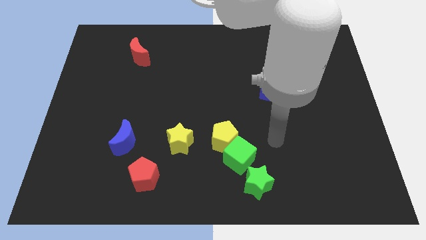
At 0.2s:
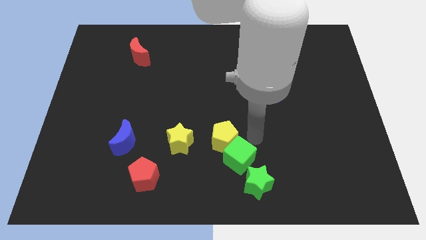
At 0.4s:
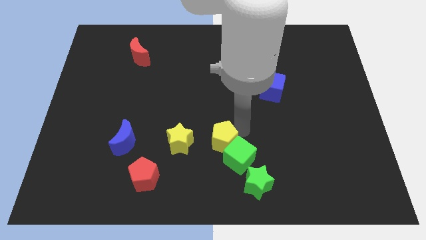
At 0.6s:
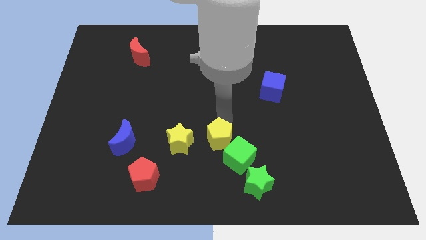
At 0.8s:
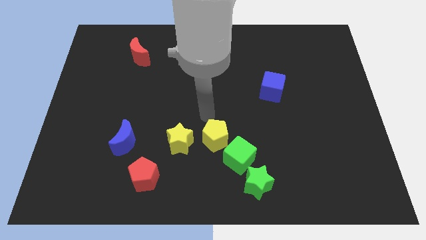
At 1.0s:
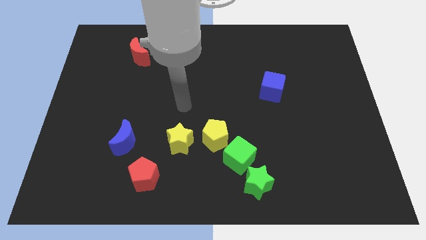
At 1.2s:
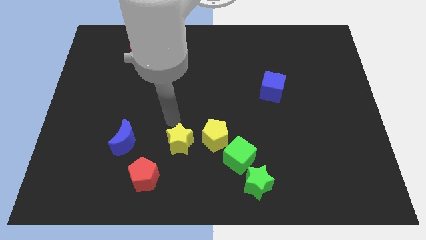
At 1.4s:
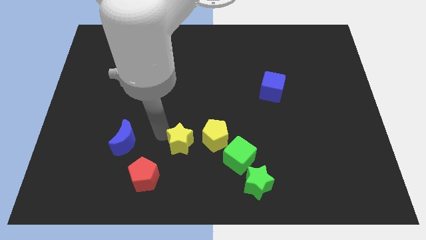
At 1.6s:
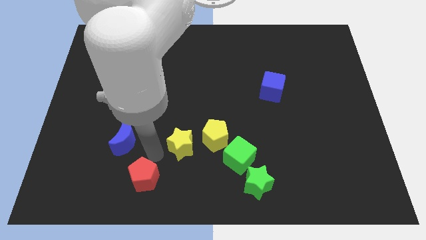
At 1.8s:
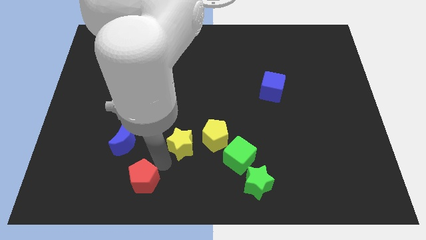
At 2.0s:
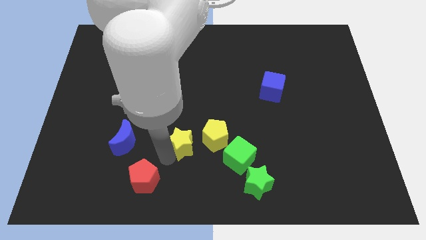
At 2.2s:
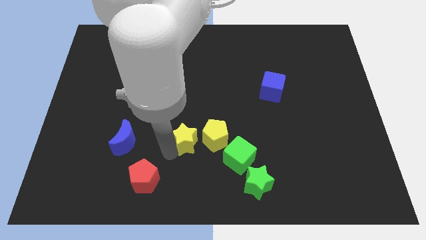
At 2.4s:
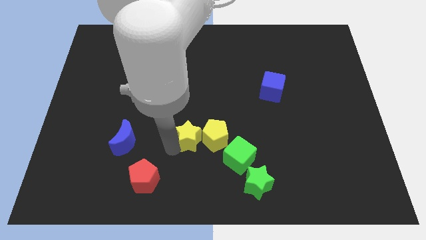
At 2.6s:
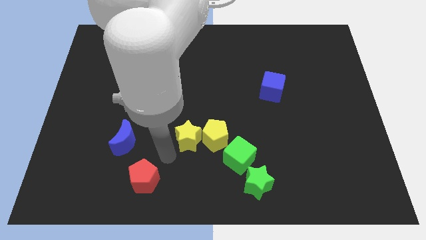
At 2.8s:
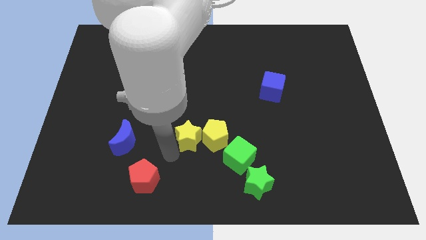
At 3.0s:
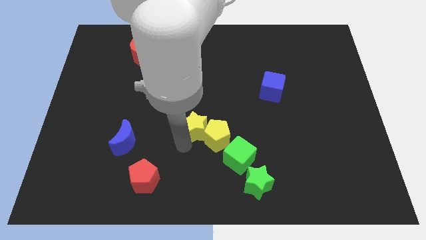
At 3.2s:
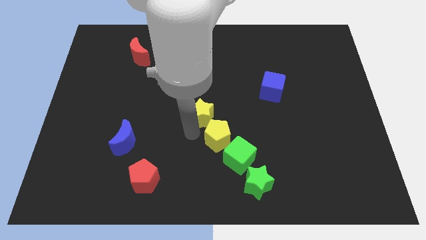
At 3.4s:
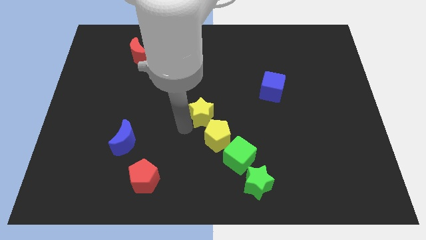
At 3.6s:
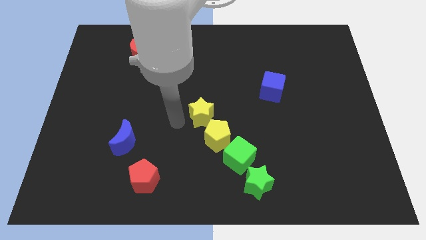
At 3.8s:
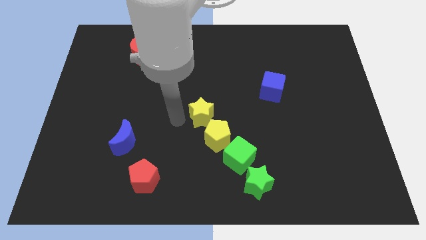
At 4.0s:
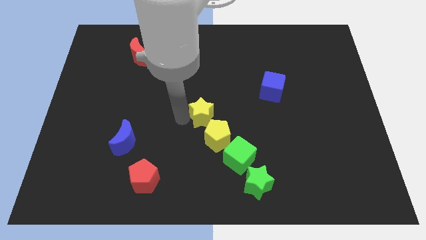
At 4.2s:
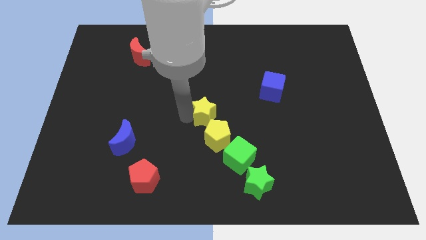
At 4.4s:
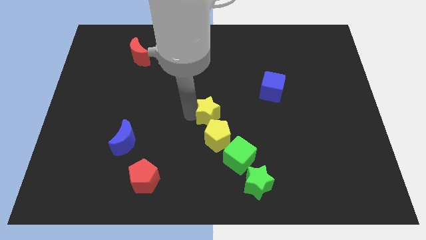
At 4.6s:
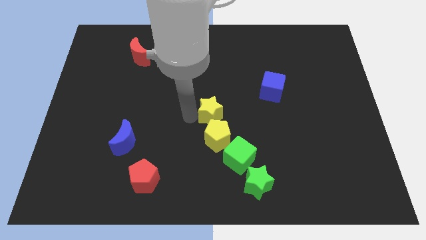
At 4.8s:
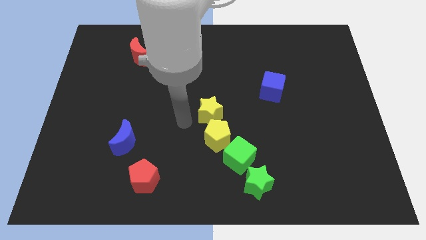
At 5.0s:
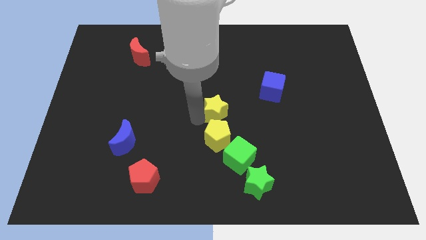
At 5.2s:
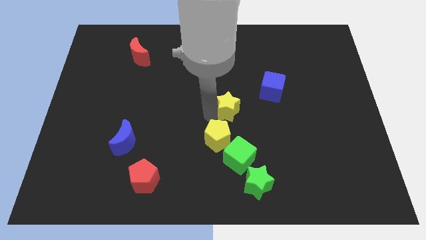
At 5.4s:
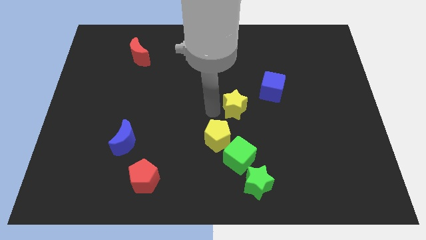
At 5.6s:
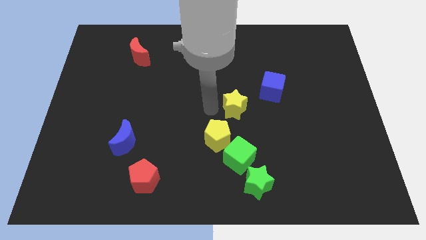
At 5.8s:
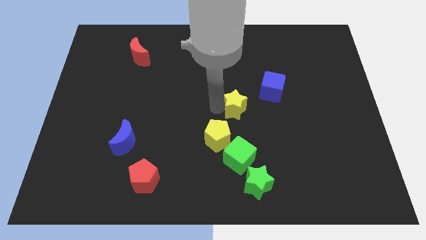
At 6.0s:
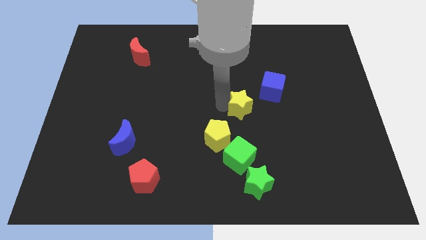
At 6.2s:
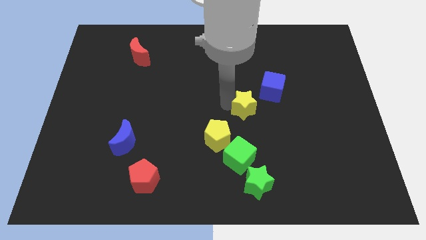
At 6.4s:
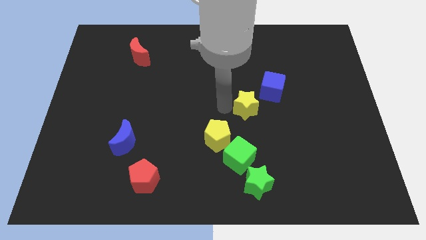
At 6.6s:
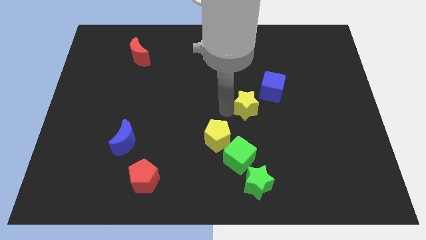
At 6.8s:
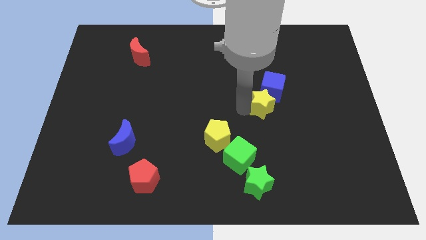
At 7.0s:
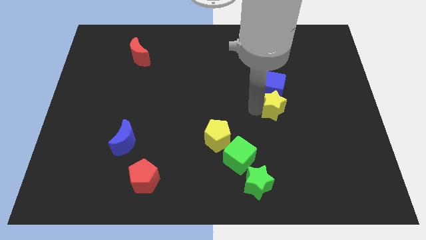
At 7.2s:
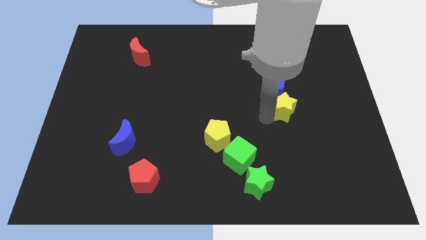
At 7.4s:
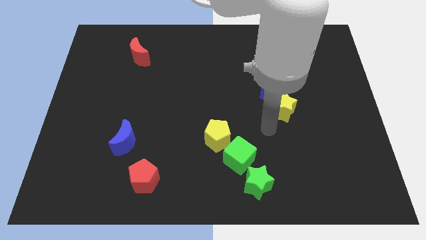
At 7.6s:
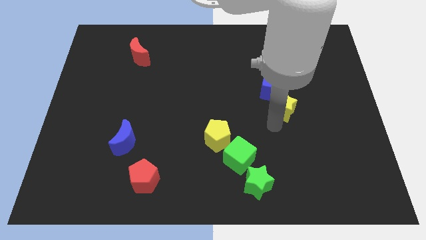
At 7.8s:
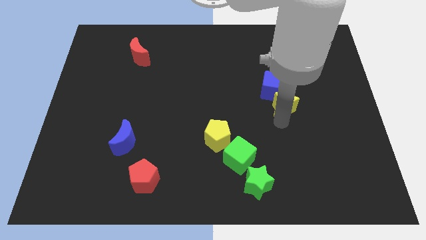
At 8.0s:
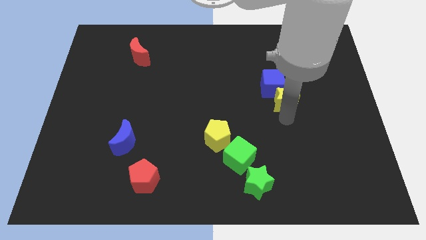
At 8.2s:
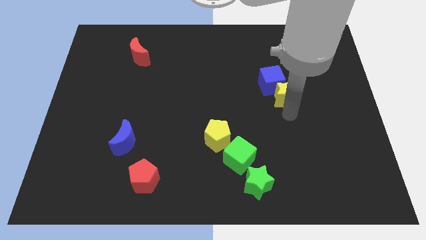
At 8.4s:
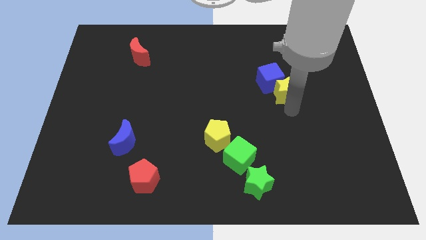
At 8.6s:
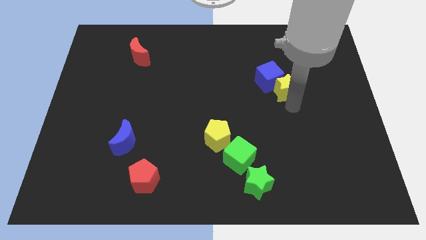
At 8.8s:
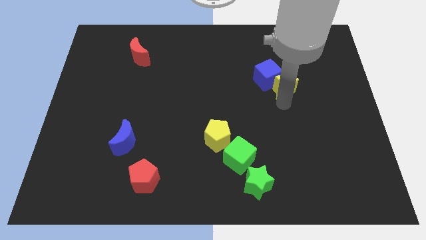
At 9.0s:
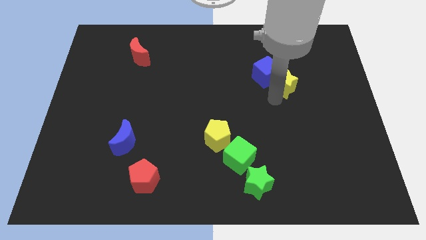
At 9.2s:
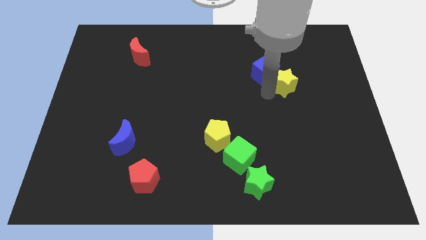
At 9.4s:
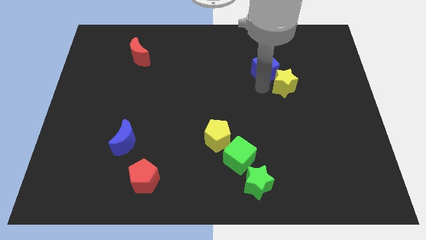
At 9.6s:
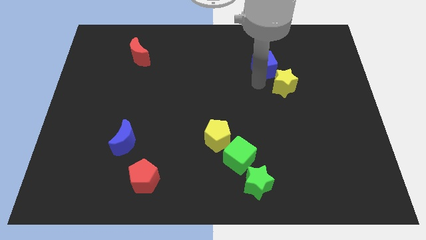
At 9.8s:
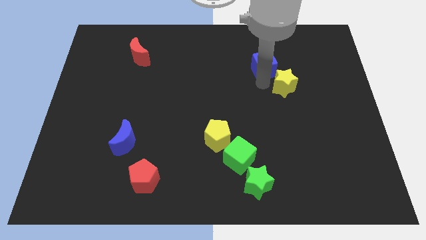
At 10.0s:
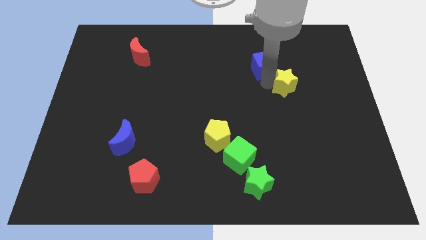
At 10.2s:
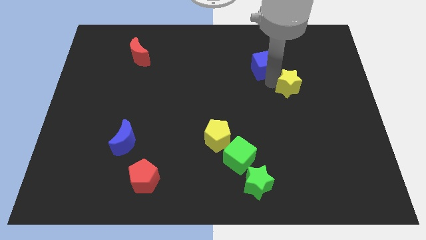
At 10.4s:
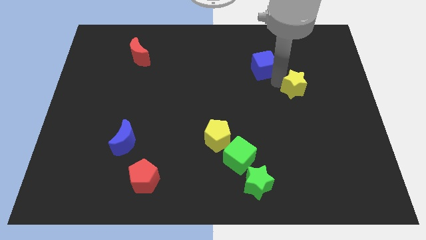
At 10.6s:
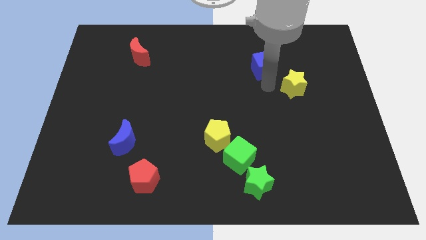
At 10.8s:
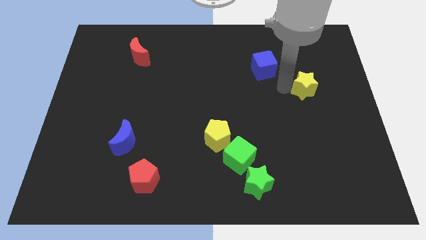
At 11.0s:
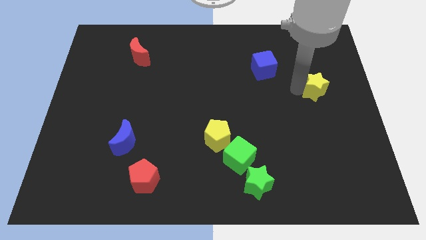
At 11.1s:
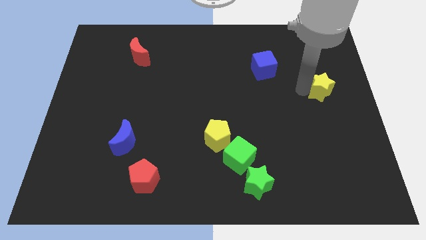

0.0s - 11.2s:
slide the yellow star to the right side of the board

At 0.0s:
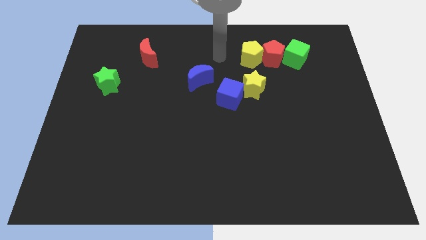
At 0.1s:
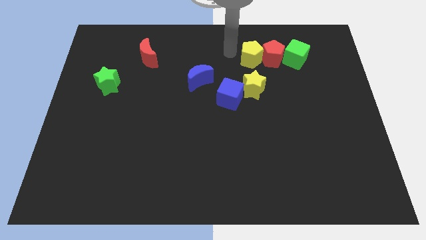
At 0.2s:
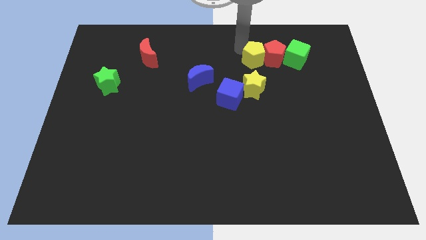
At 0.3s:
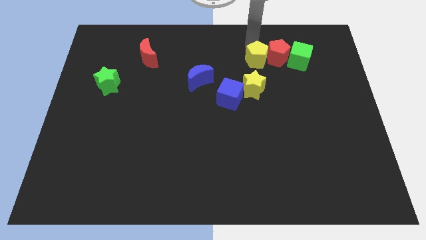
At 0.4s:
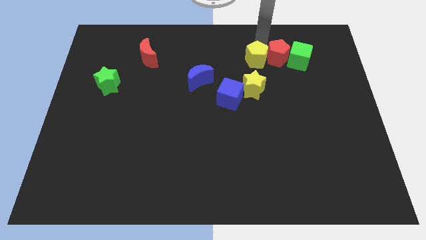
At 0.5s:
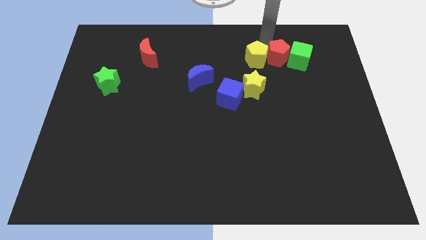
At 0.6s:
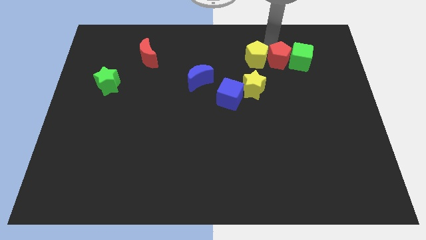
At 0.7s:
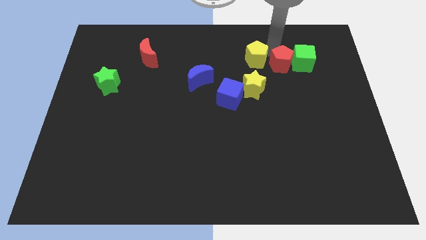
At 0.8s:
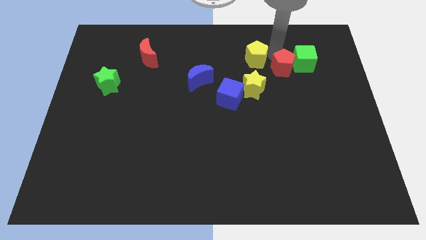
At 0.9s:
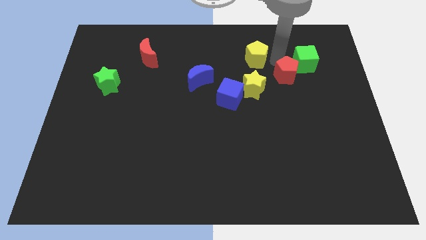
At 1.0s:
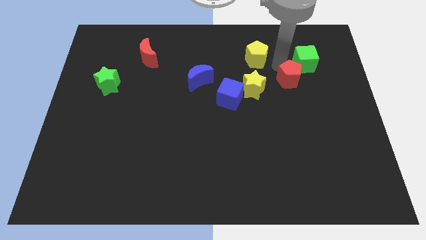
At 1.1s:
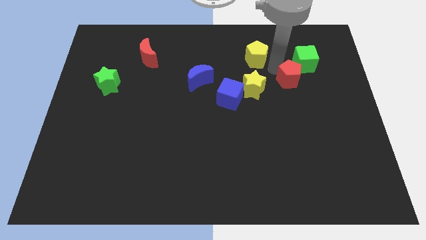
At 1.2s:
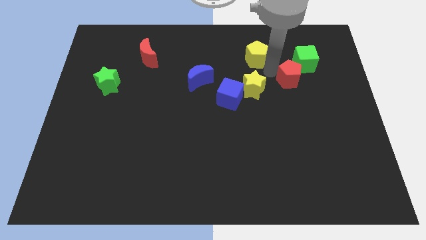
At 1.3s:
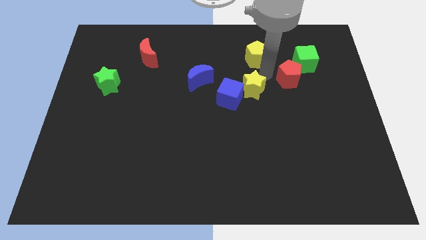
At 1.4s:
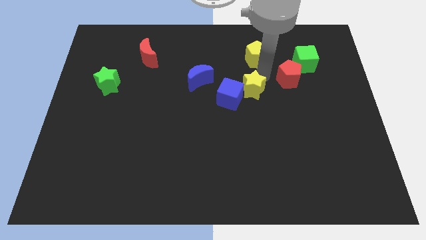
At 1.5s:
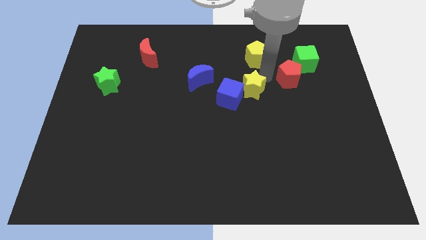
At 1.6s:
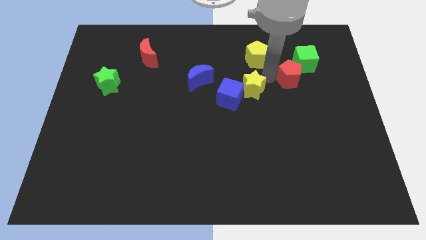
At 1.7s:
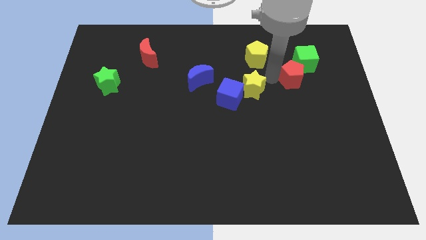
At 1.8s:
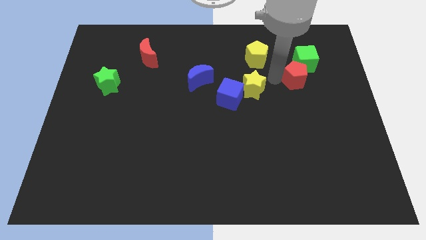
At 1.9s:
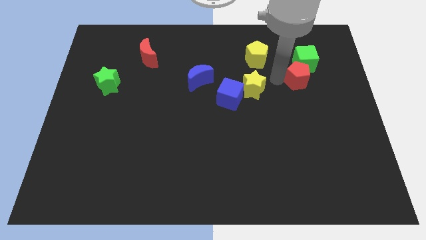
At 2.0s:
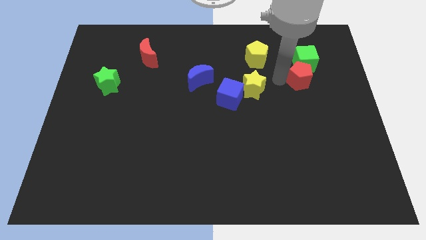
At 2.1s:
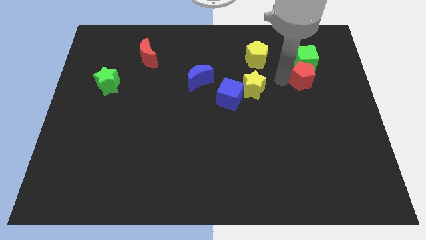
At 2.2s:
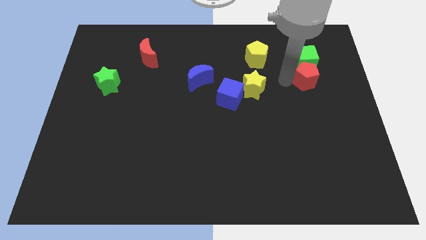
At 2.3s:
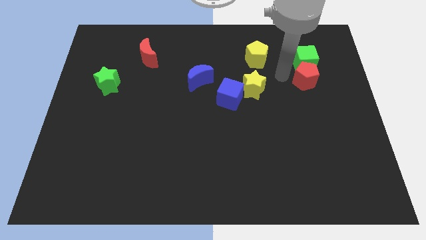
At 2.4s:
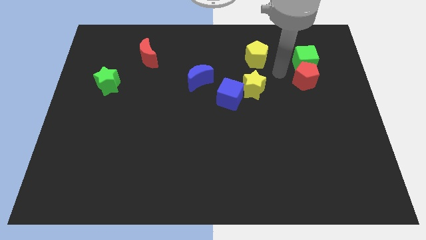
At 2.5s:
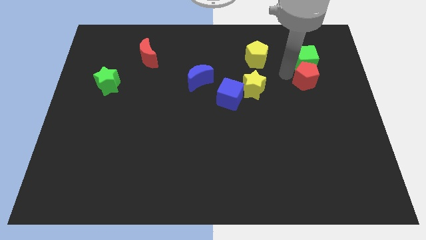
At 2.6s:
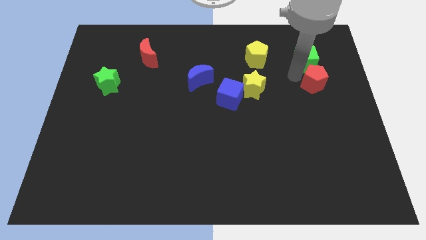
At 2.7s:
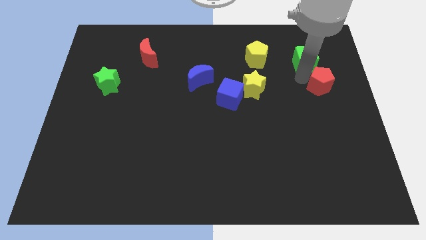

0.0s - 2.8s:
move the red pentagon to the center right
